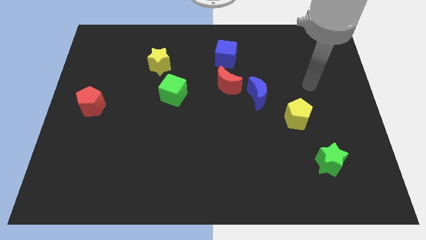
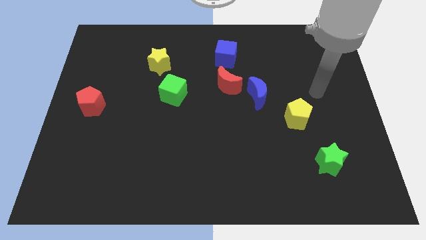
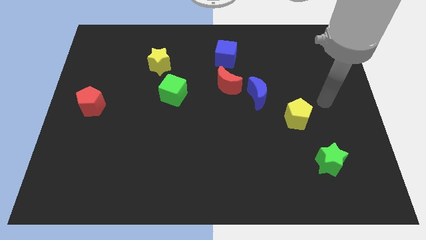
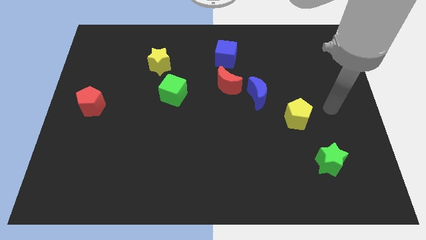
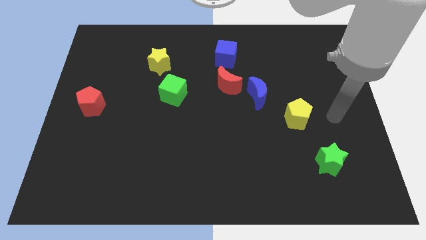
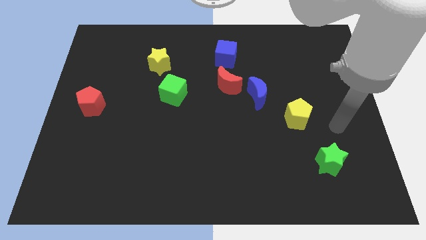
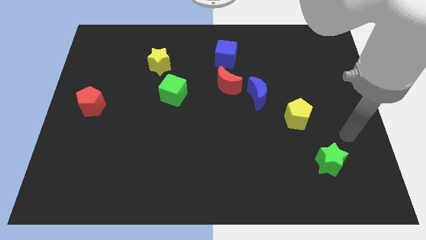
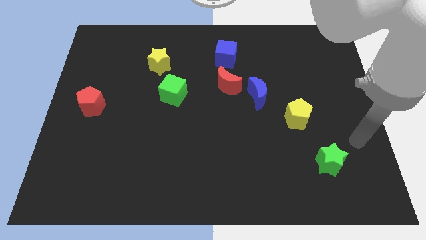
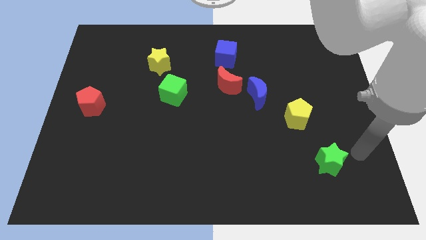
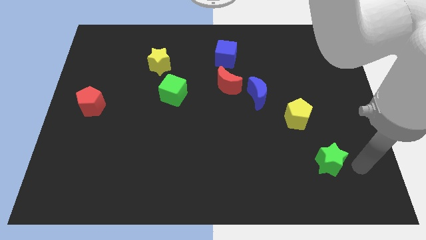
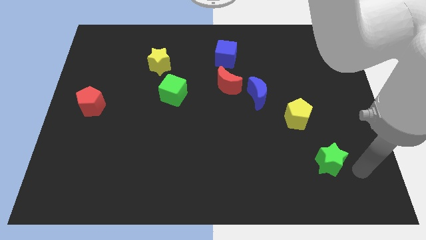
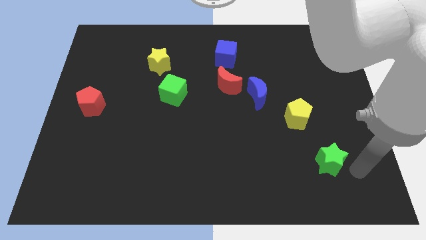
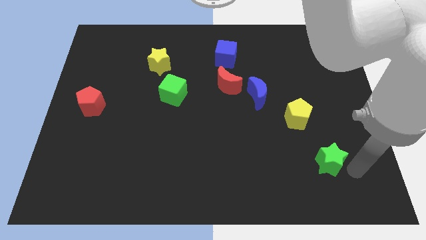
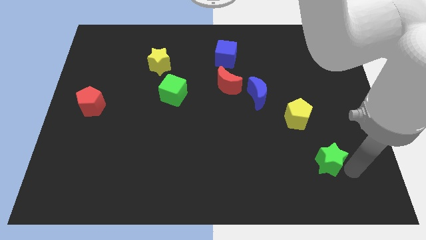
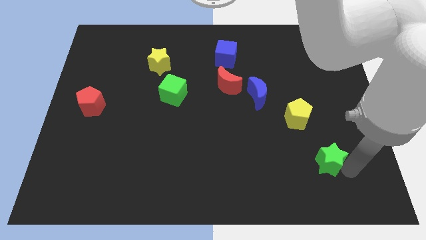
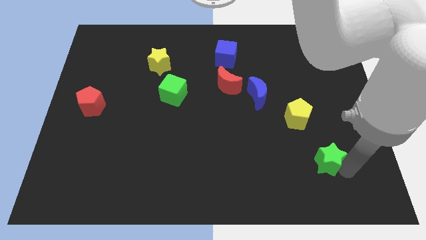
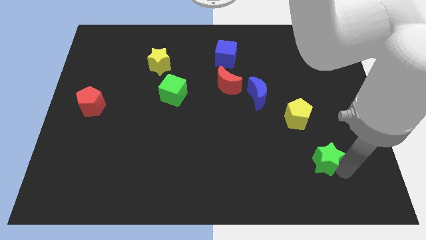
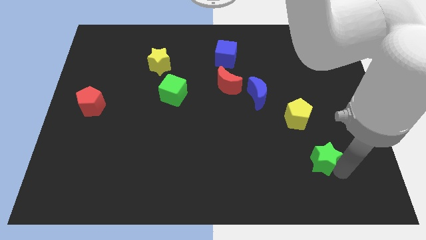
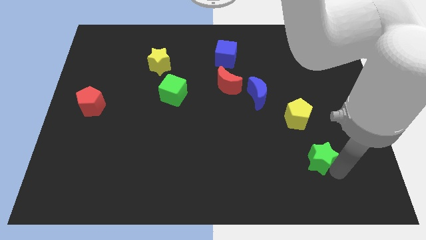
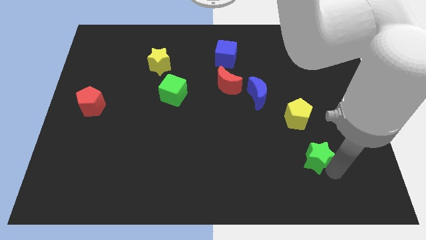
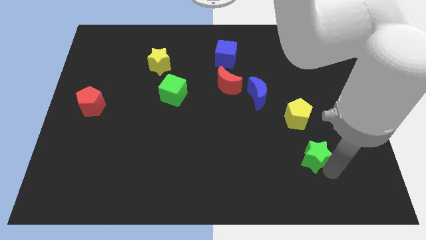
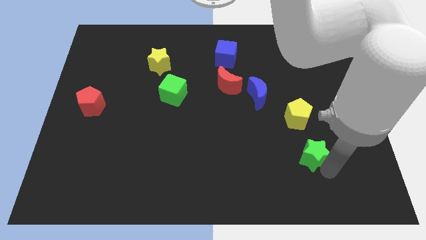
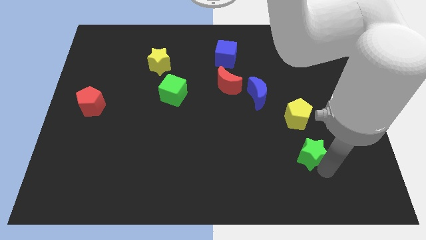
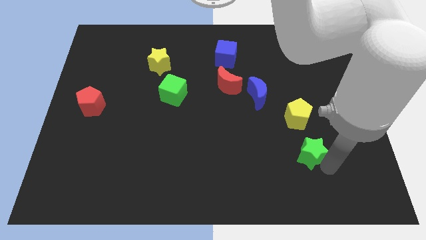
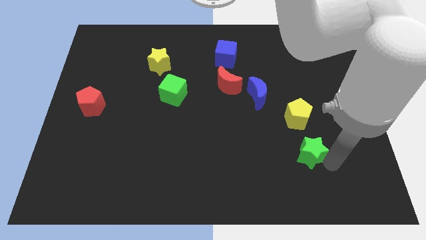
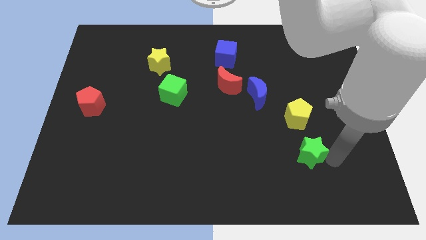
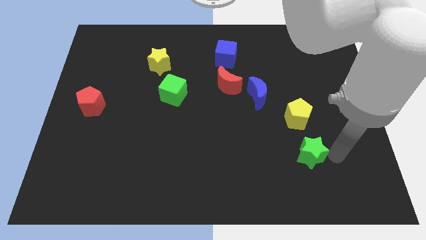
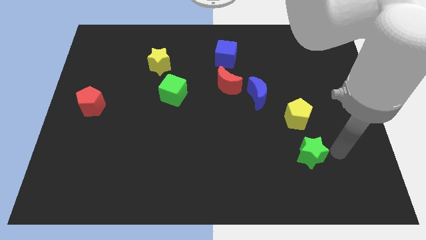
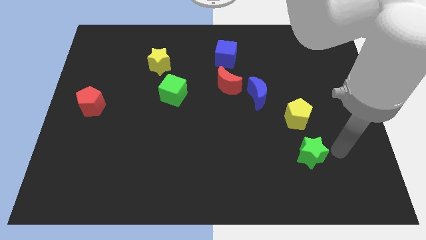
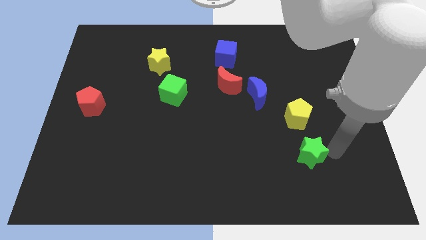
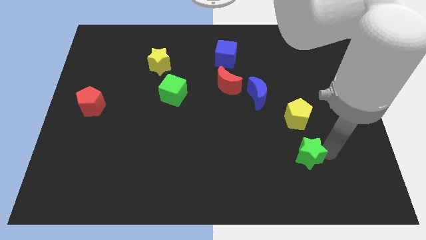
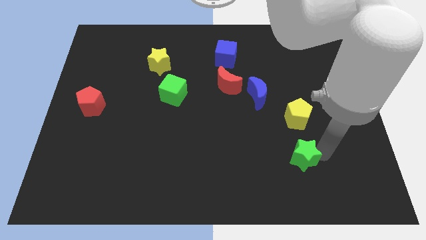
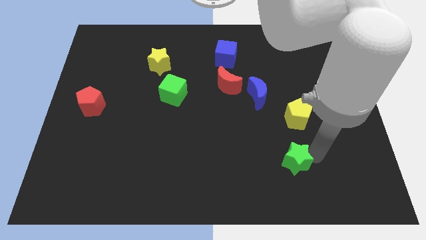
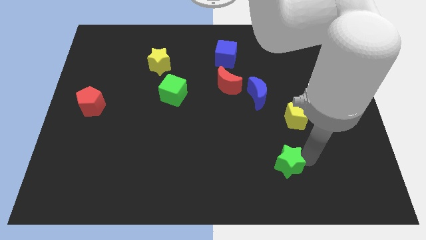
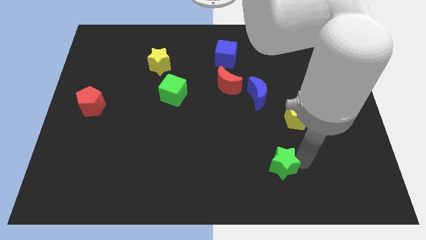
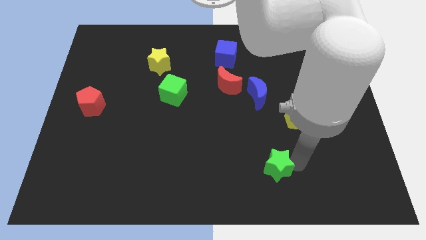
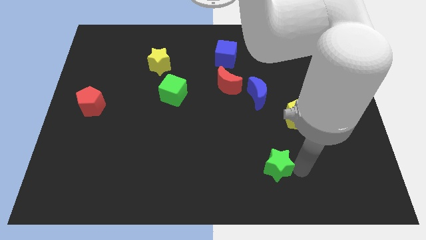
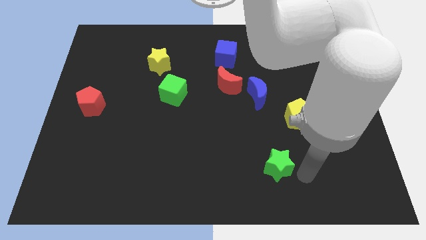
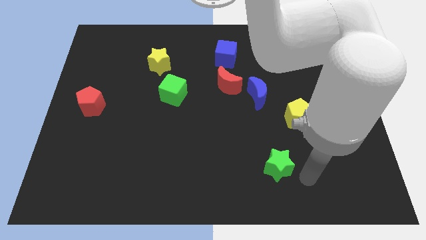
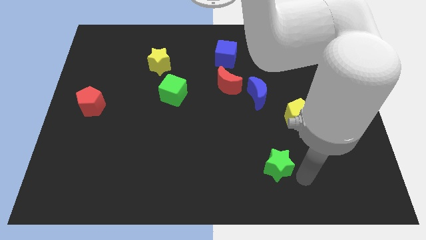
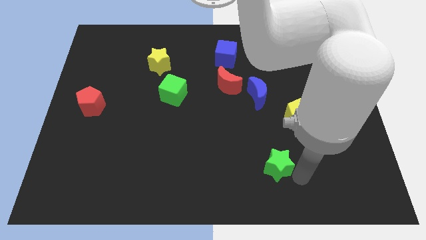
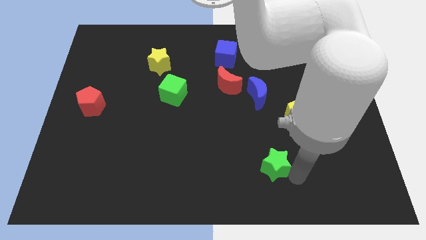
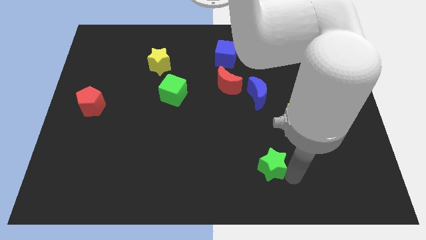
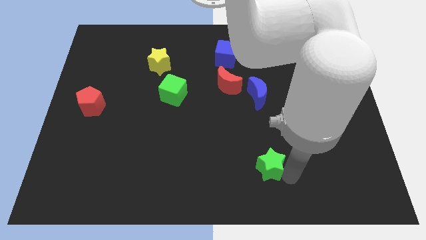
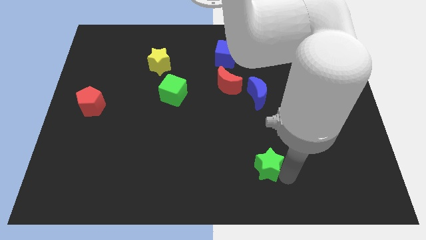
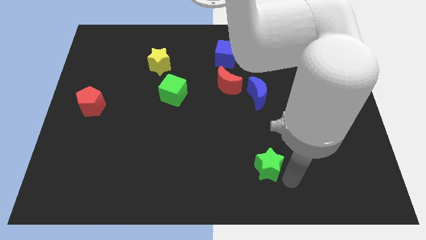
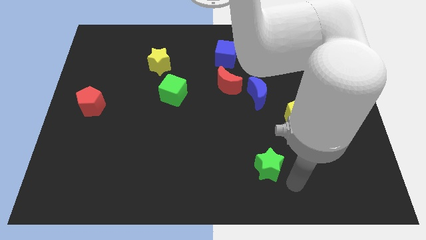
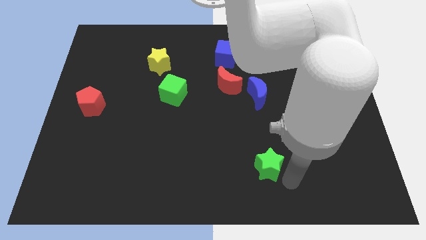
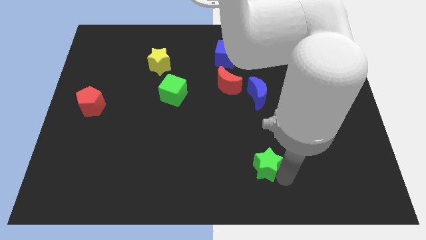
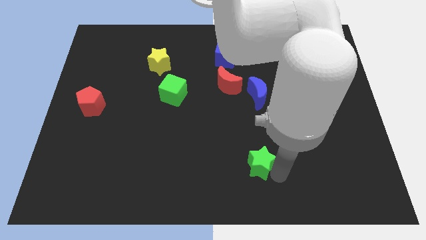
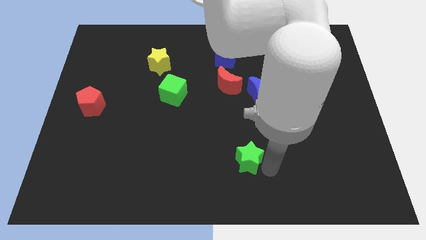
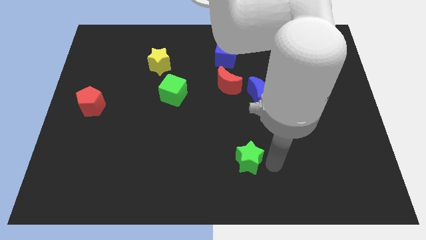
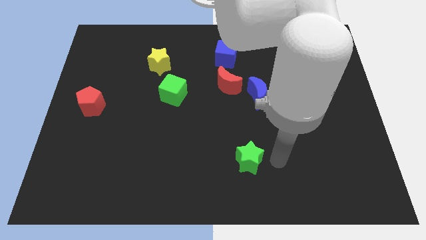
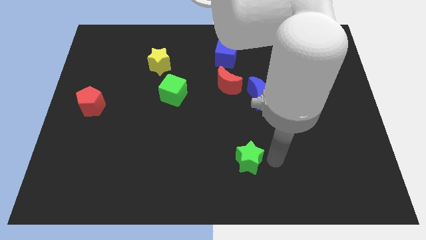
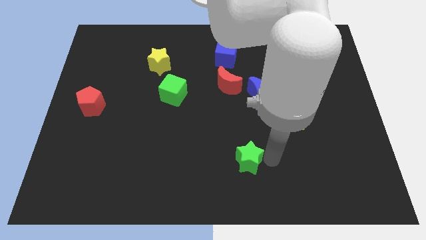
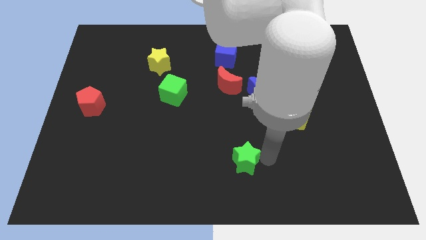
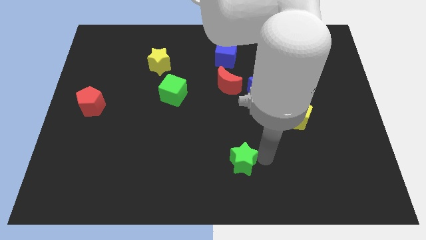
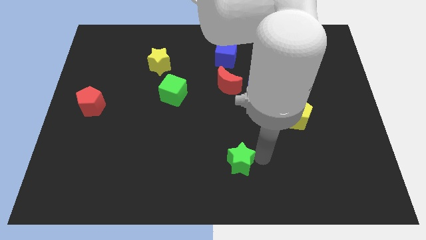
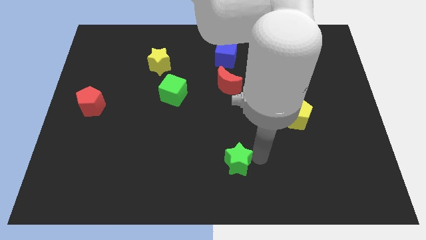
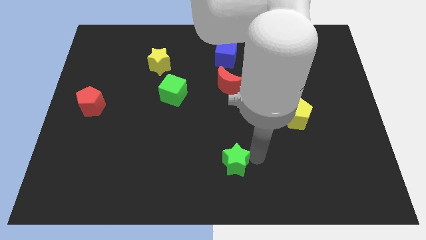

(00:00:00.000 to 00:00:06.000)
slide the green star to the left

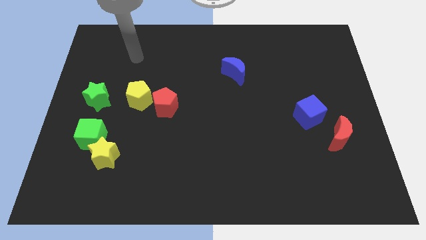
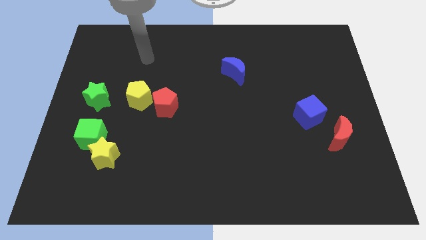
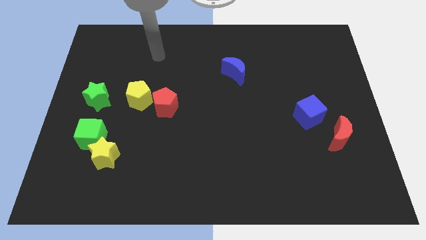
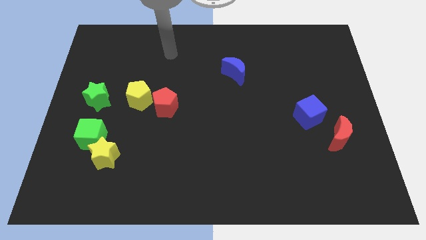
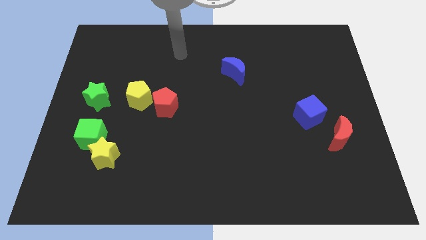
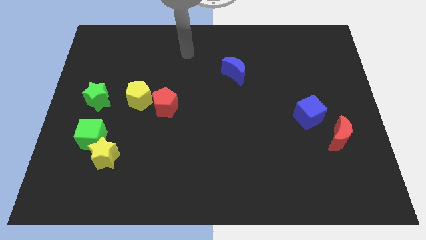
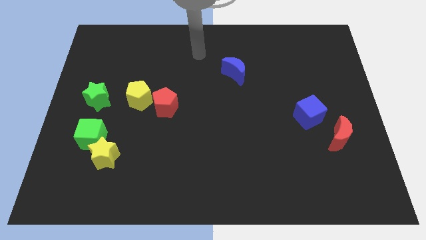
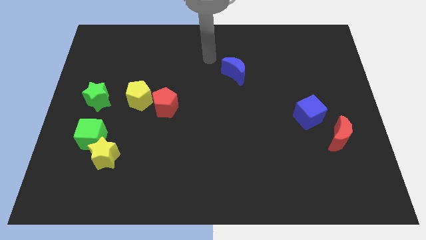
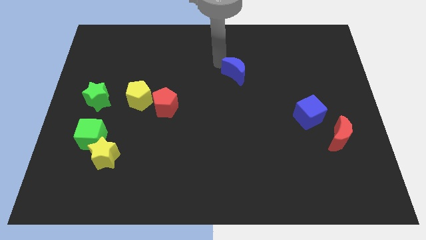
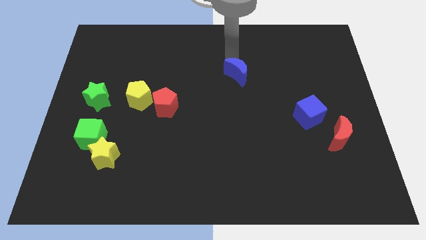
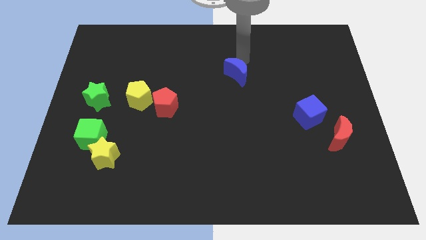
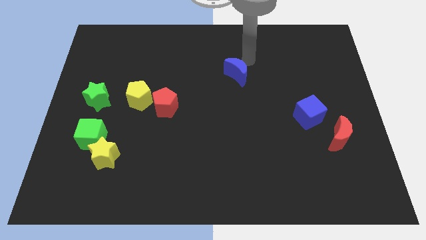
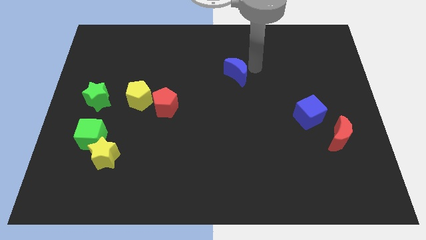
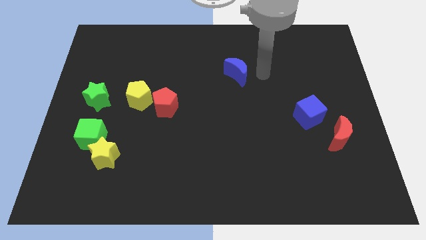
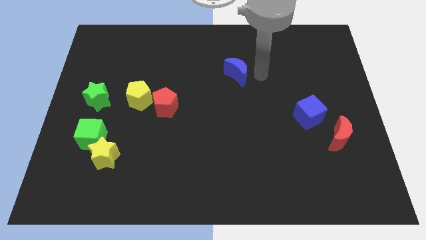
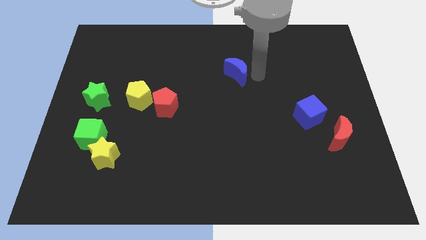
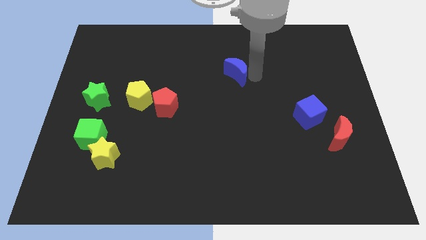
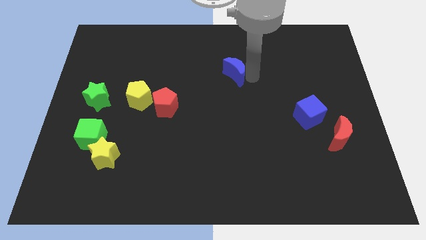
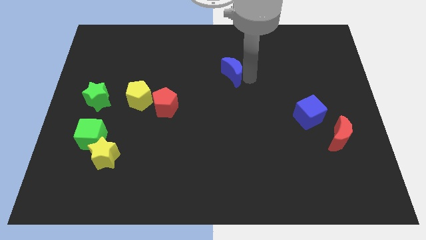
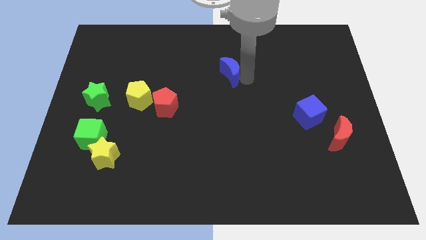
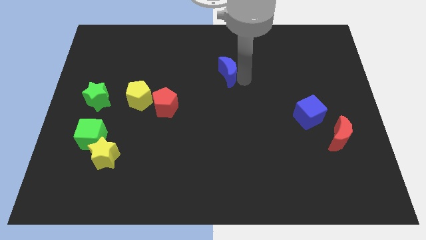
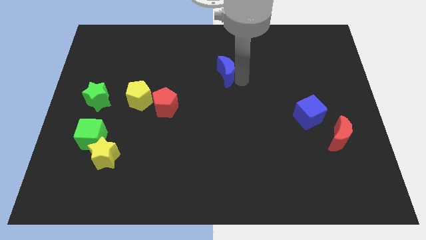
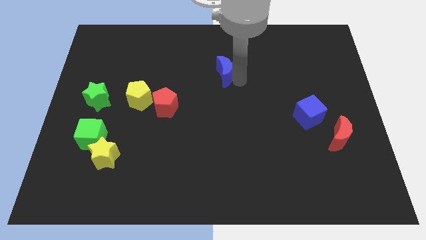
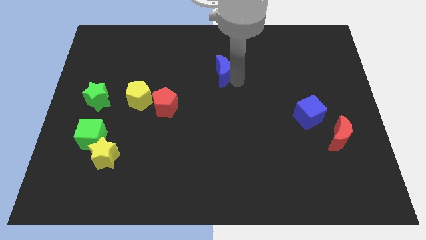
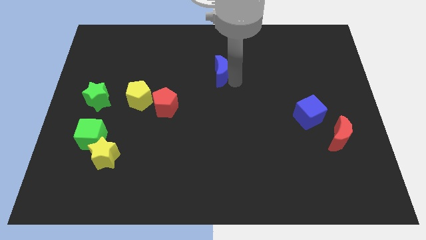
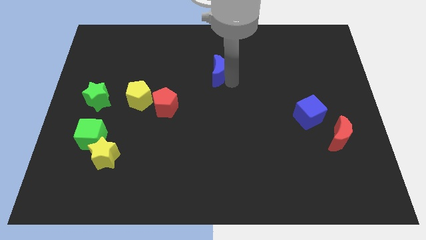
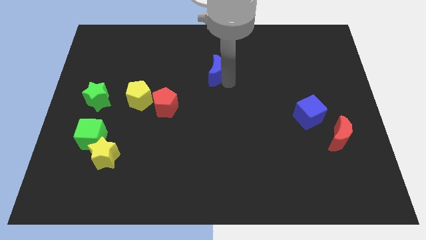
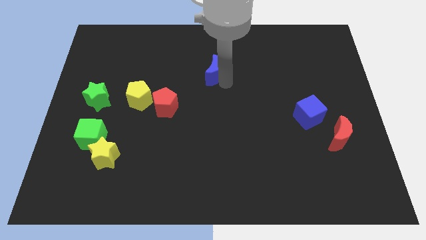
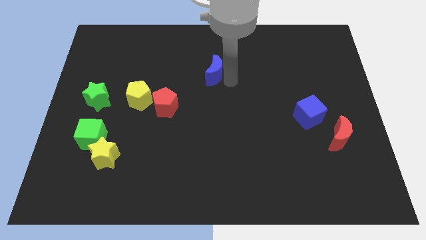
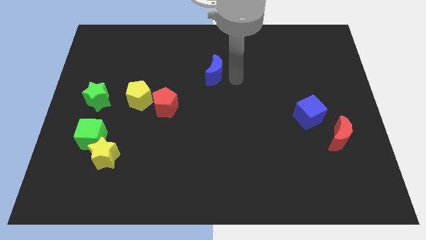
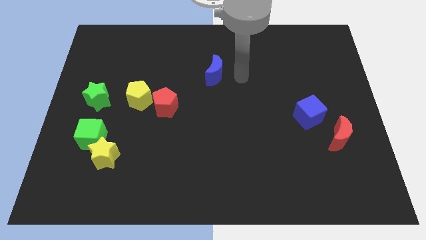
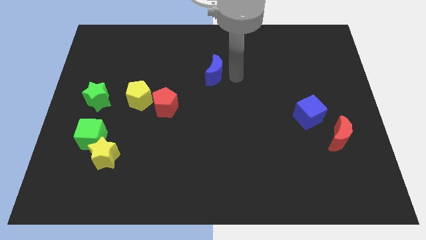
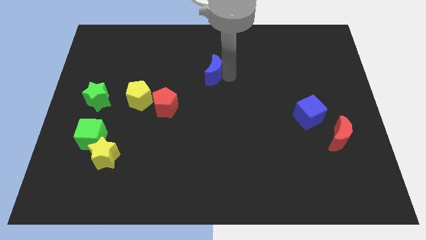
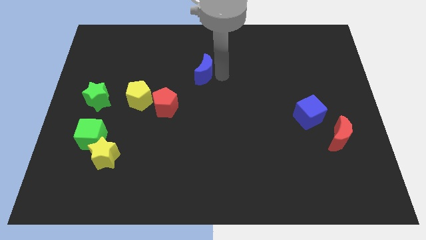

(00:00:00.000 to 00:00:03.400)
push the blue moon to the left a little
